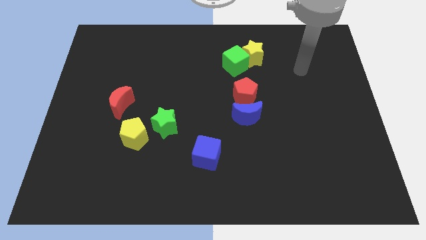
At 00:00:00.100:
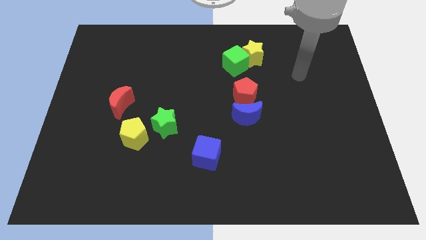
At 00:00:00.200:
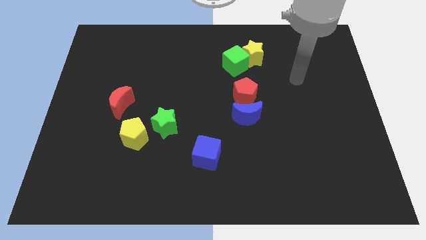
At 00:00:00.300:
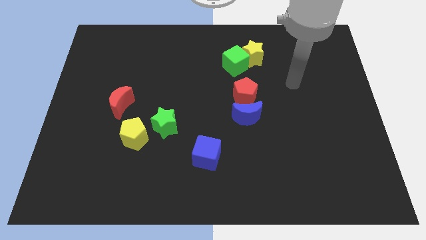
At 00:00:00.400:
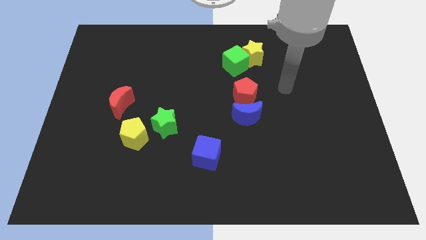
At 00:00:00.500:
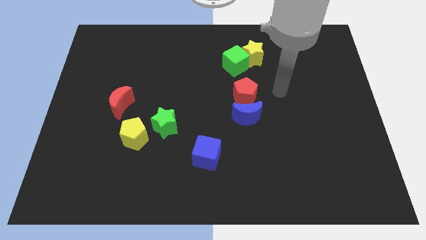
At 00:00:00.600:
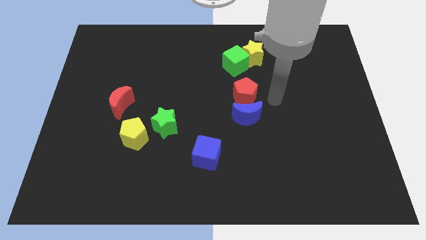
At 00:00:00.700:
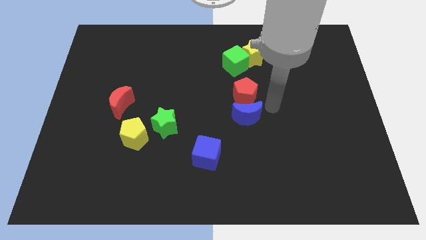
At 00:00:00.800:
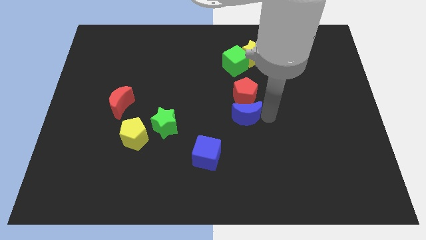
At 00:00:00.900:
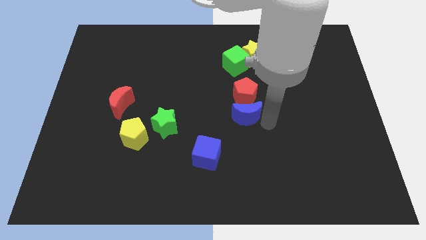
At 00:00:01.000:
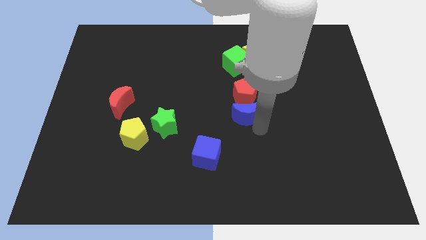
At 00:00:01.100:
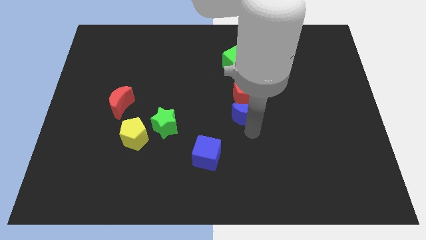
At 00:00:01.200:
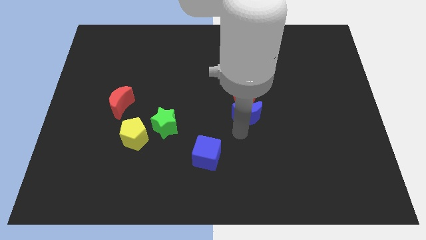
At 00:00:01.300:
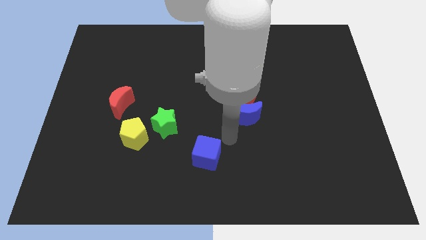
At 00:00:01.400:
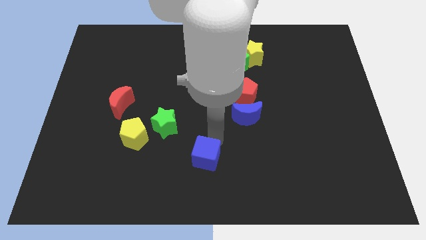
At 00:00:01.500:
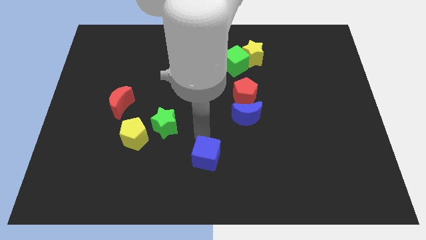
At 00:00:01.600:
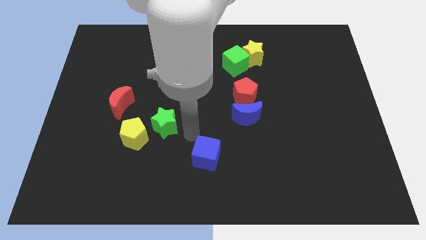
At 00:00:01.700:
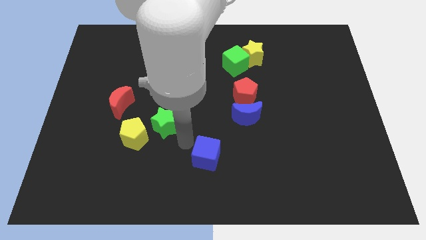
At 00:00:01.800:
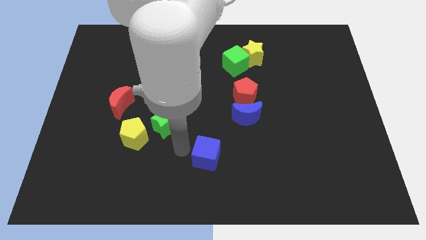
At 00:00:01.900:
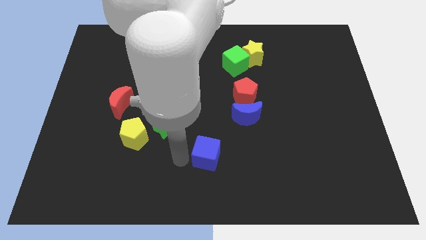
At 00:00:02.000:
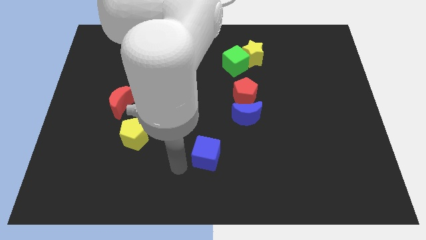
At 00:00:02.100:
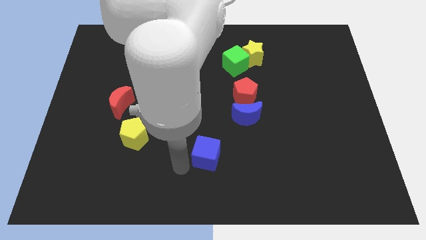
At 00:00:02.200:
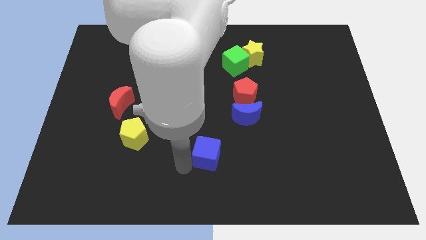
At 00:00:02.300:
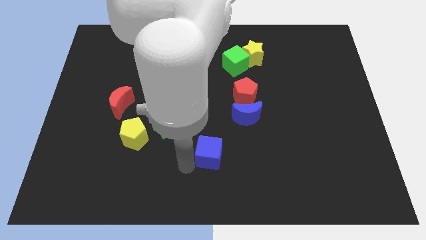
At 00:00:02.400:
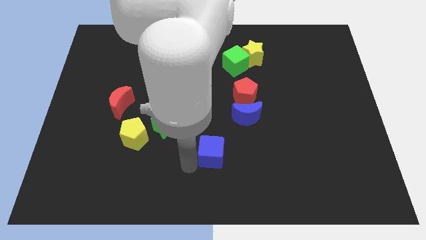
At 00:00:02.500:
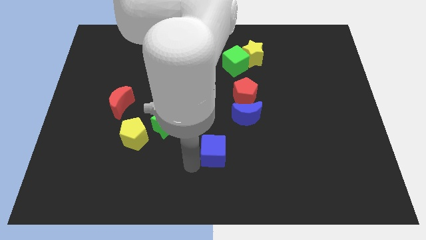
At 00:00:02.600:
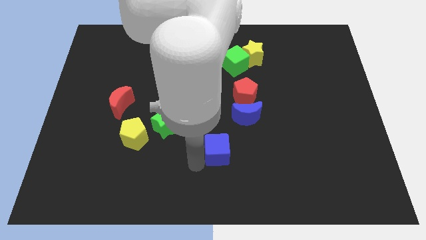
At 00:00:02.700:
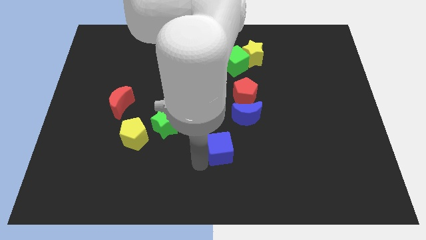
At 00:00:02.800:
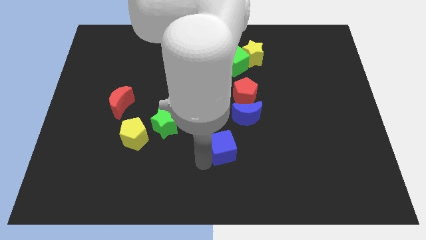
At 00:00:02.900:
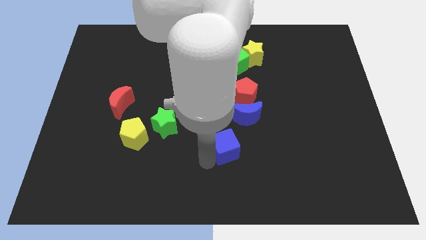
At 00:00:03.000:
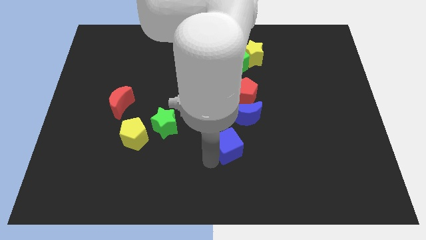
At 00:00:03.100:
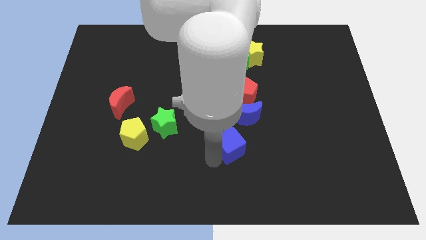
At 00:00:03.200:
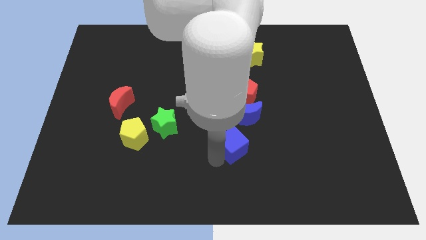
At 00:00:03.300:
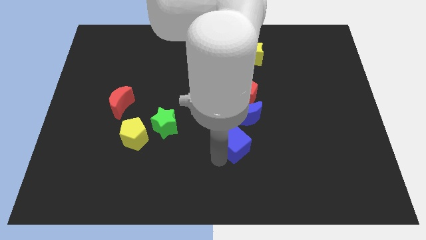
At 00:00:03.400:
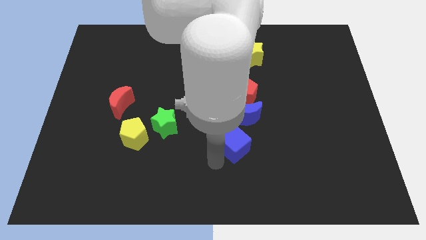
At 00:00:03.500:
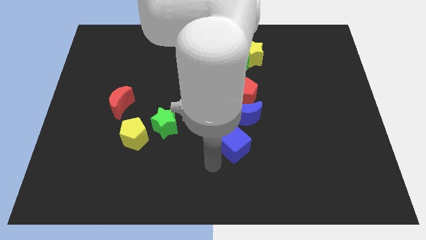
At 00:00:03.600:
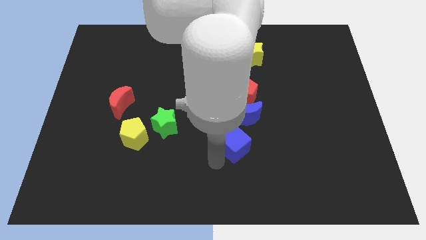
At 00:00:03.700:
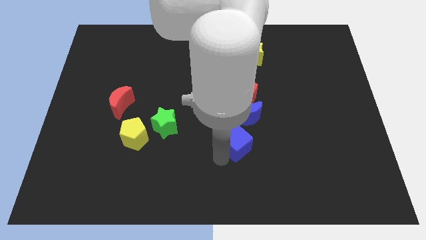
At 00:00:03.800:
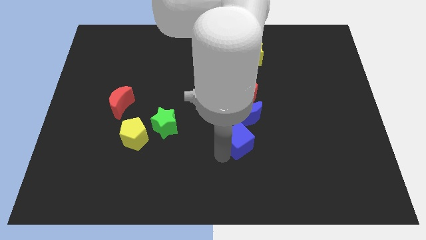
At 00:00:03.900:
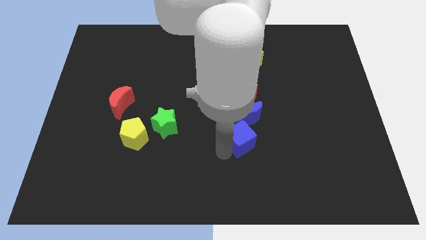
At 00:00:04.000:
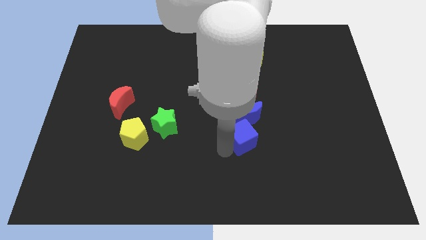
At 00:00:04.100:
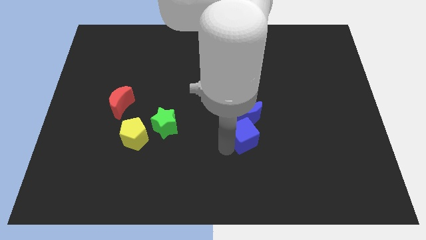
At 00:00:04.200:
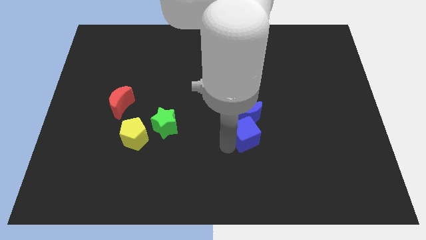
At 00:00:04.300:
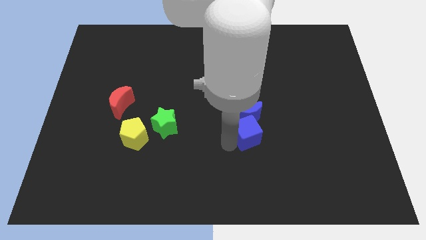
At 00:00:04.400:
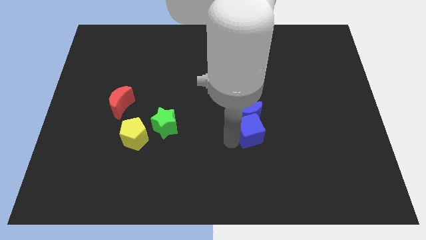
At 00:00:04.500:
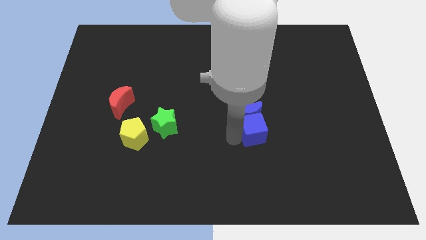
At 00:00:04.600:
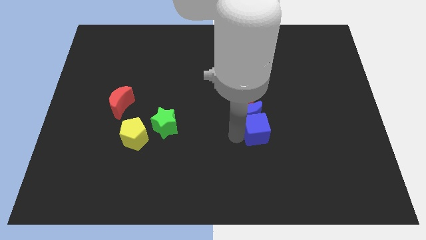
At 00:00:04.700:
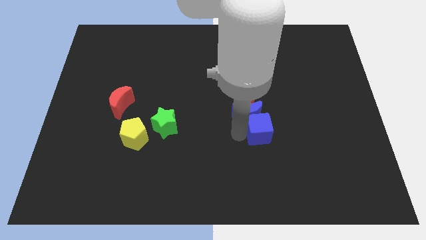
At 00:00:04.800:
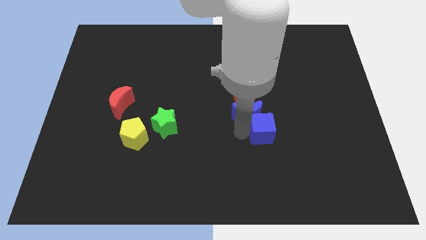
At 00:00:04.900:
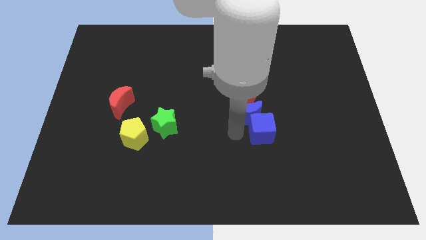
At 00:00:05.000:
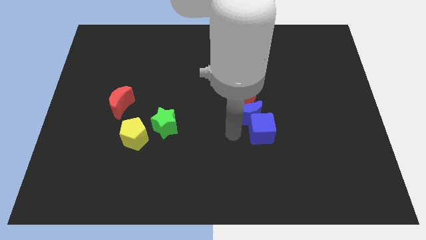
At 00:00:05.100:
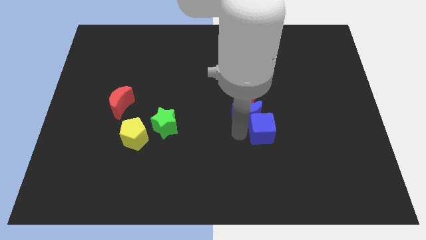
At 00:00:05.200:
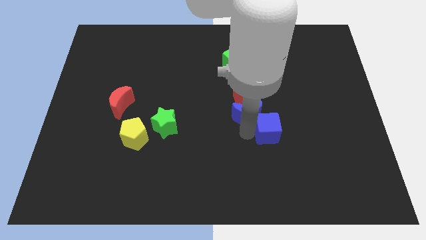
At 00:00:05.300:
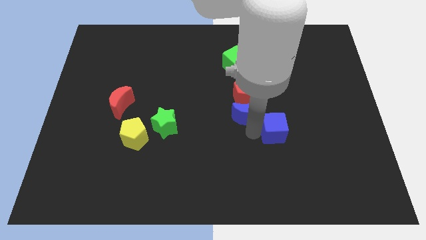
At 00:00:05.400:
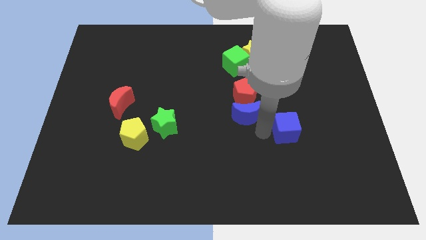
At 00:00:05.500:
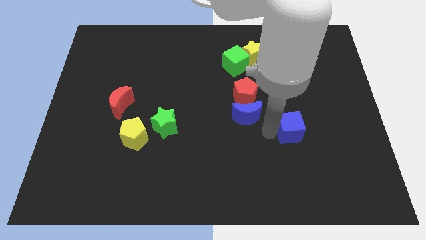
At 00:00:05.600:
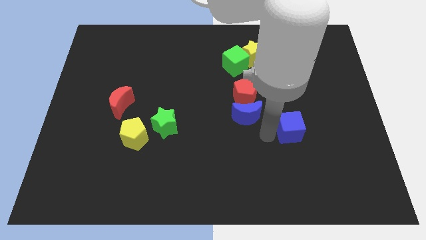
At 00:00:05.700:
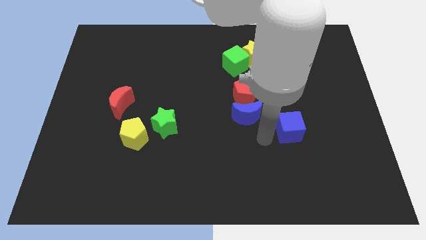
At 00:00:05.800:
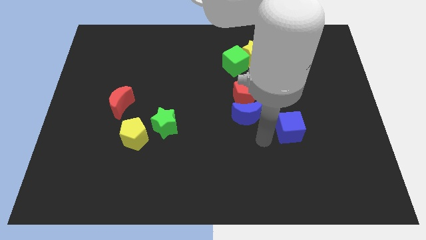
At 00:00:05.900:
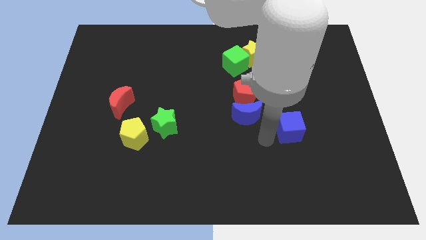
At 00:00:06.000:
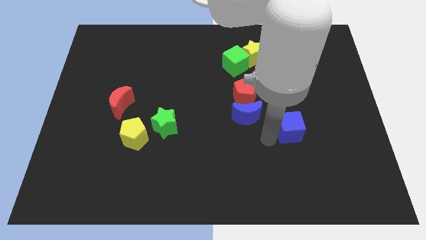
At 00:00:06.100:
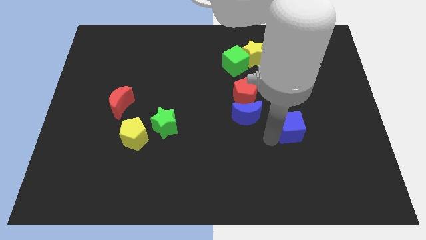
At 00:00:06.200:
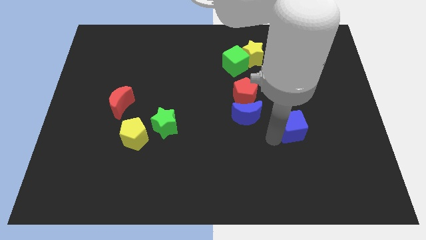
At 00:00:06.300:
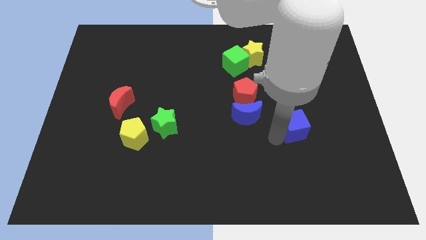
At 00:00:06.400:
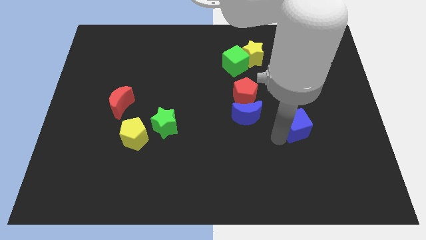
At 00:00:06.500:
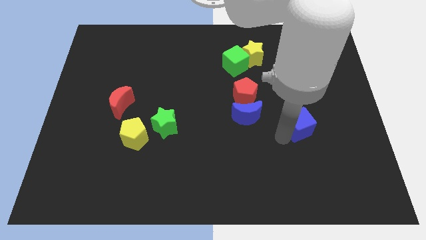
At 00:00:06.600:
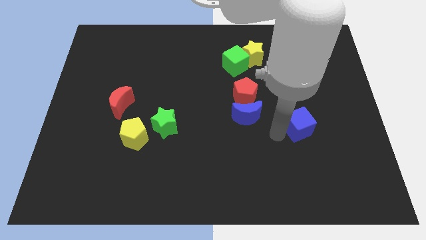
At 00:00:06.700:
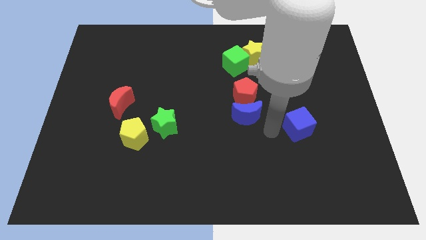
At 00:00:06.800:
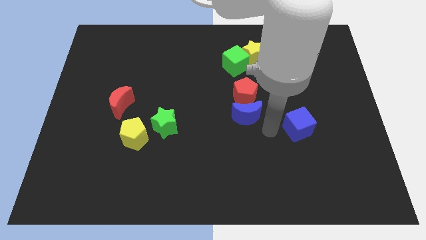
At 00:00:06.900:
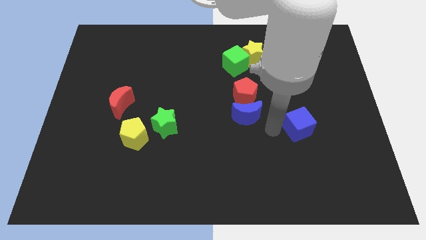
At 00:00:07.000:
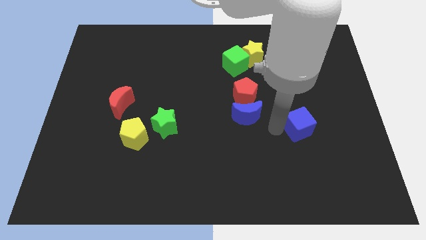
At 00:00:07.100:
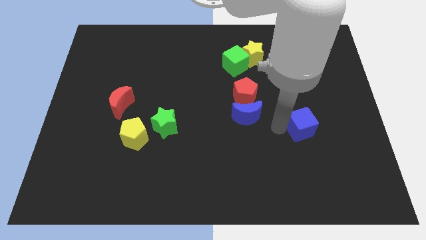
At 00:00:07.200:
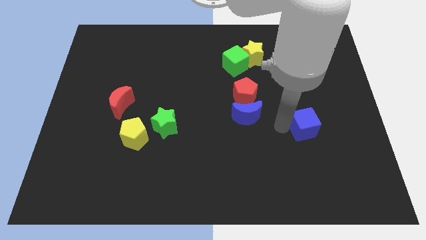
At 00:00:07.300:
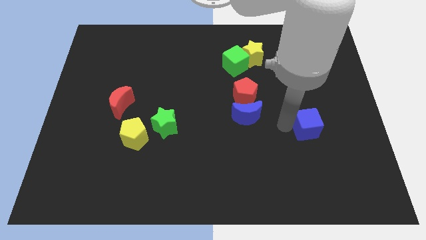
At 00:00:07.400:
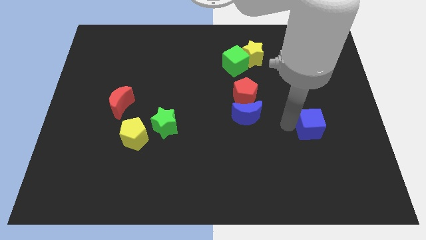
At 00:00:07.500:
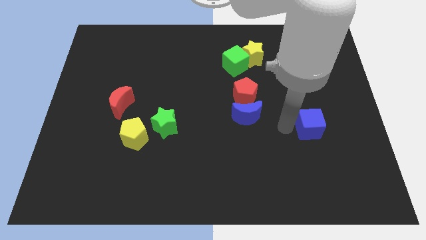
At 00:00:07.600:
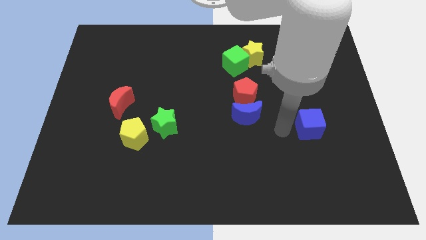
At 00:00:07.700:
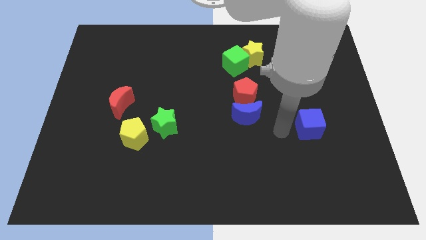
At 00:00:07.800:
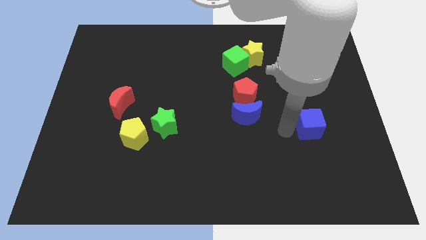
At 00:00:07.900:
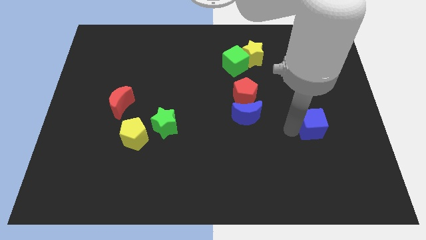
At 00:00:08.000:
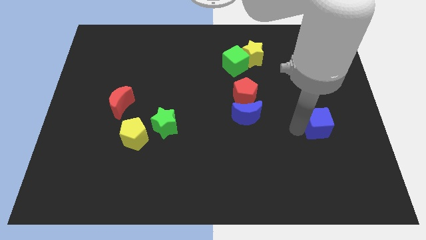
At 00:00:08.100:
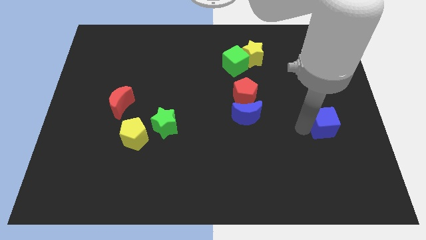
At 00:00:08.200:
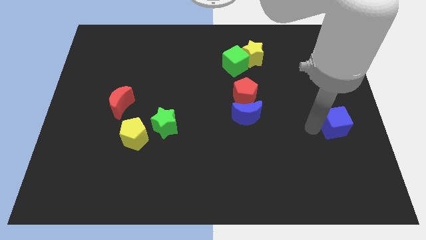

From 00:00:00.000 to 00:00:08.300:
push the blue cube to the right side of the board
